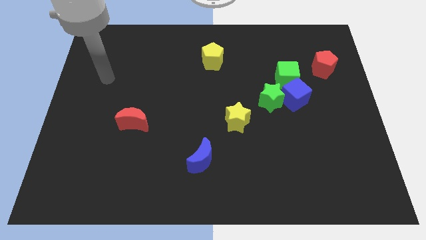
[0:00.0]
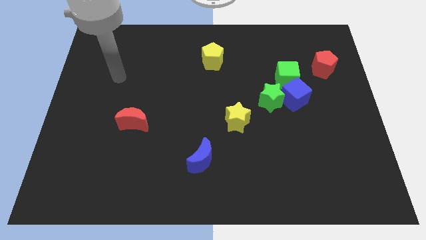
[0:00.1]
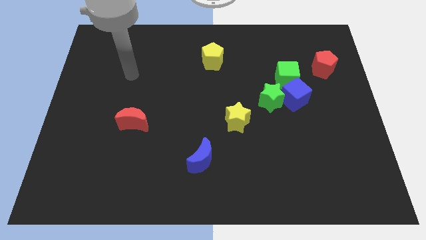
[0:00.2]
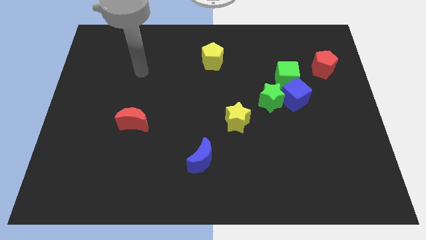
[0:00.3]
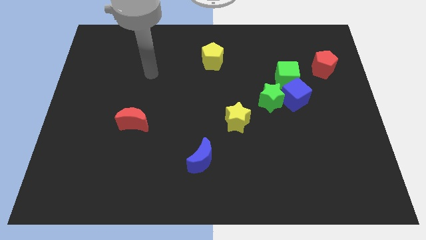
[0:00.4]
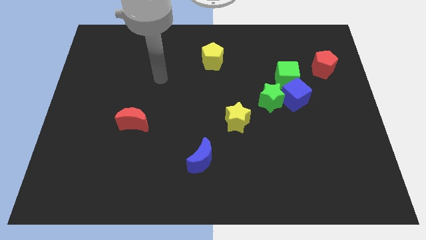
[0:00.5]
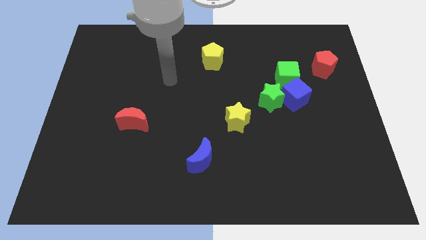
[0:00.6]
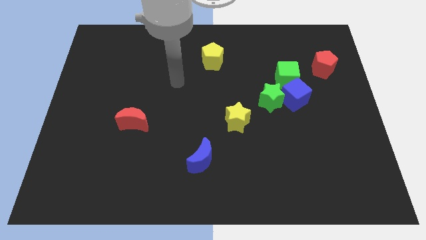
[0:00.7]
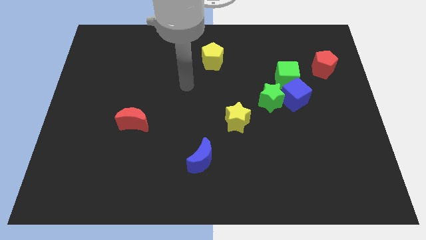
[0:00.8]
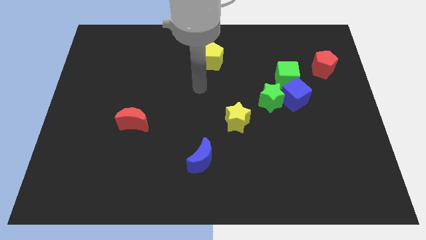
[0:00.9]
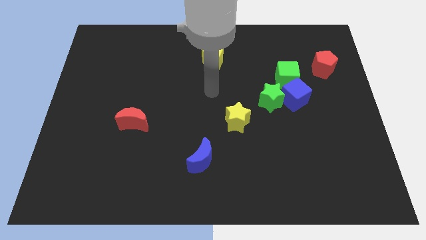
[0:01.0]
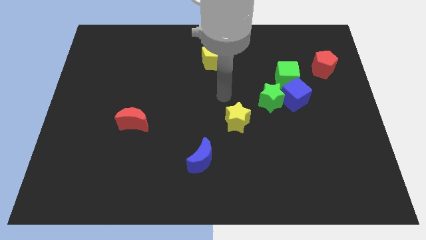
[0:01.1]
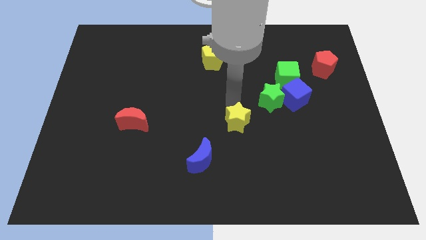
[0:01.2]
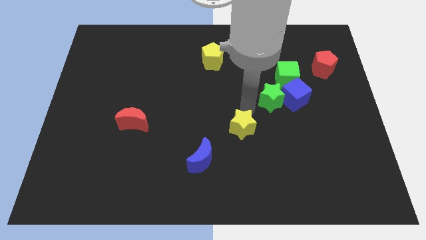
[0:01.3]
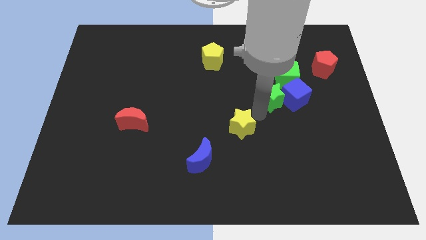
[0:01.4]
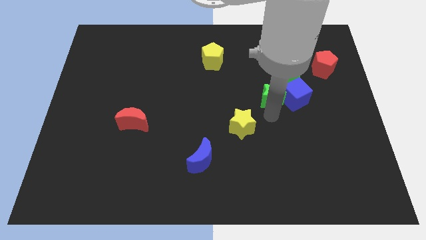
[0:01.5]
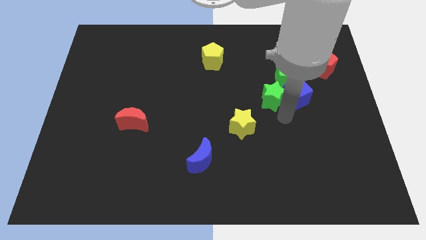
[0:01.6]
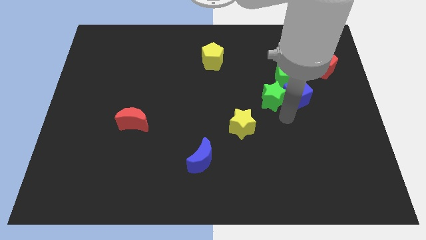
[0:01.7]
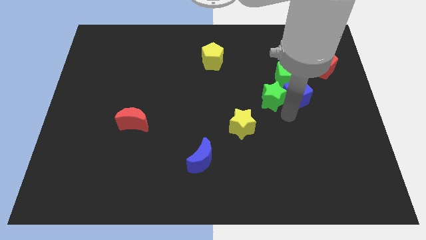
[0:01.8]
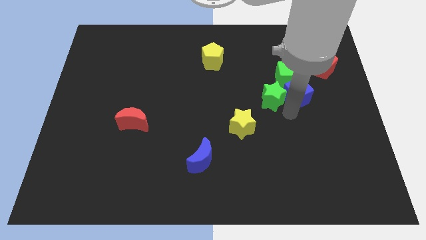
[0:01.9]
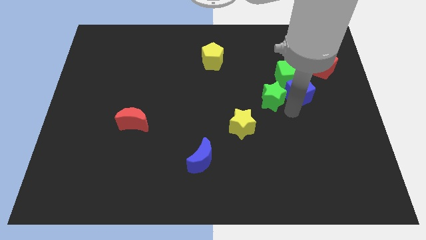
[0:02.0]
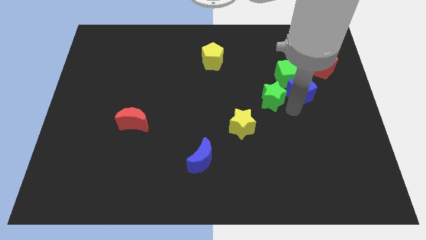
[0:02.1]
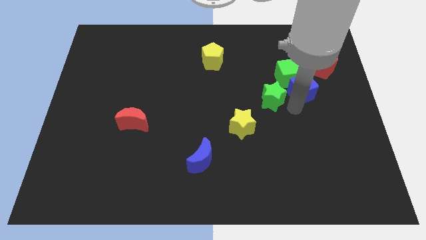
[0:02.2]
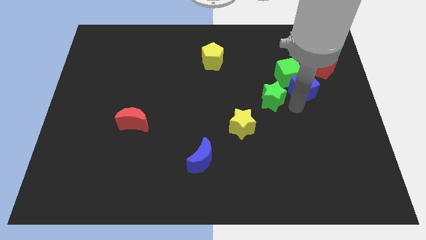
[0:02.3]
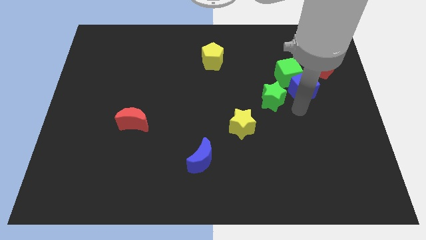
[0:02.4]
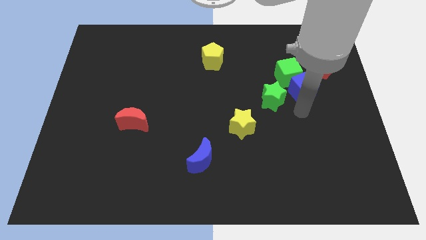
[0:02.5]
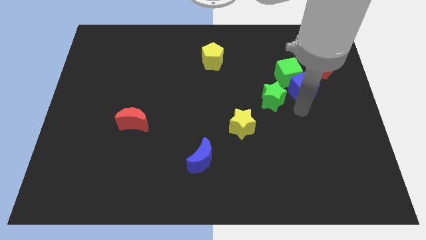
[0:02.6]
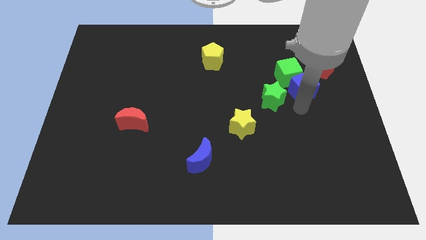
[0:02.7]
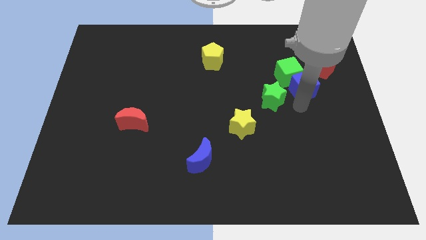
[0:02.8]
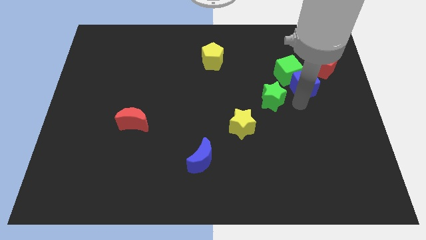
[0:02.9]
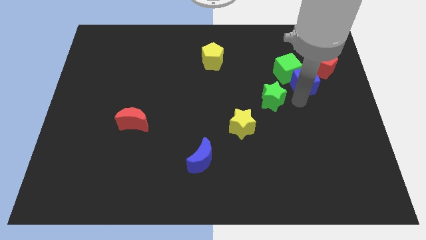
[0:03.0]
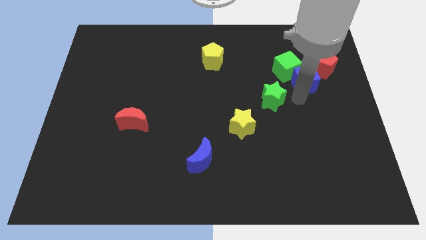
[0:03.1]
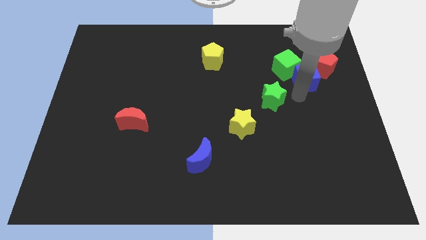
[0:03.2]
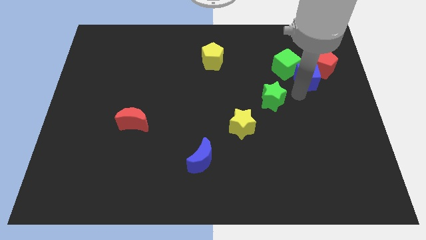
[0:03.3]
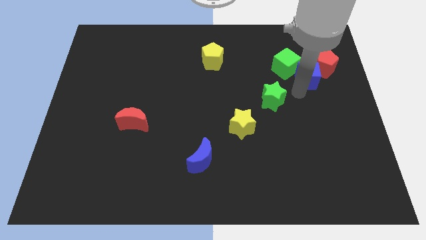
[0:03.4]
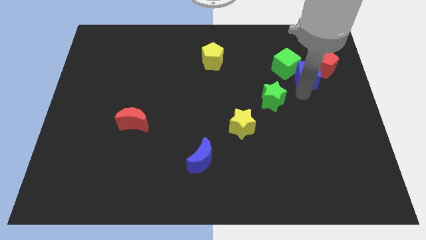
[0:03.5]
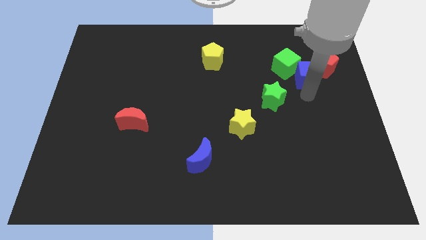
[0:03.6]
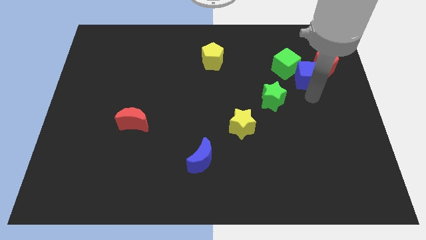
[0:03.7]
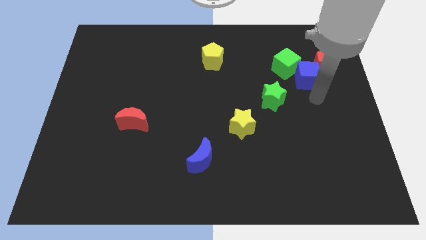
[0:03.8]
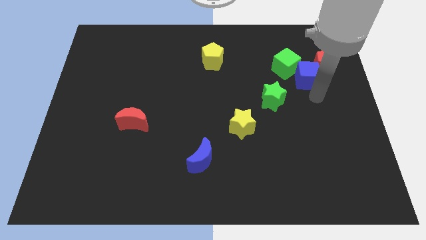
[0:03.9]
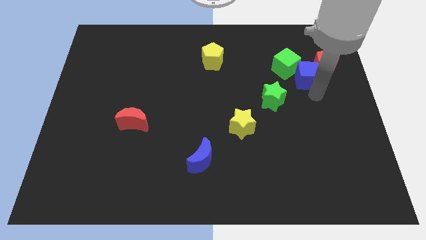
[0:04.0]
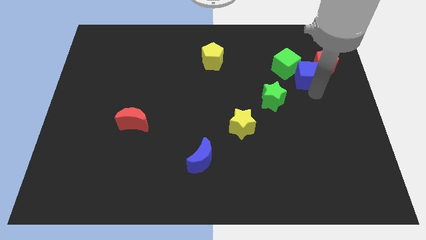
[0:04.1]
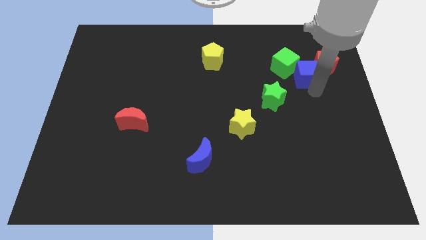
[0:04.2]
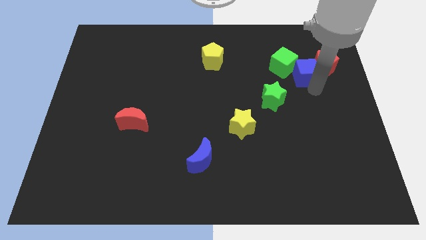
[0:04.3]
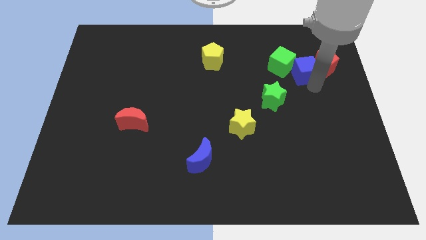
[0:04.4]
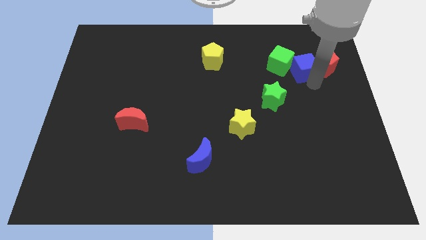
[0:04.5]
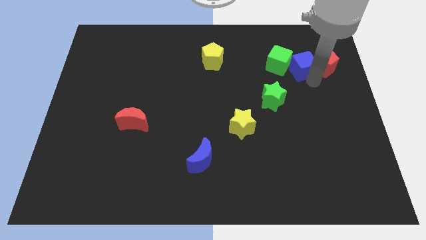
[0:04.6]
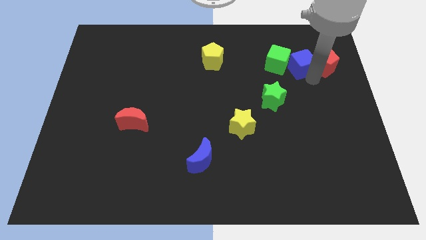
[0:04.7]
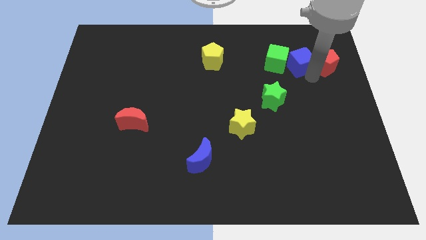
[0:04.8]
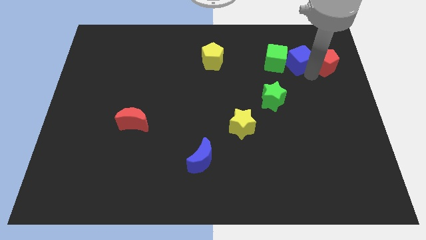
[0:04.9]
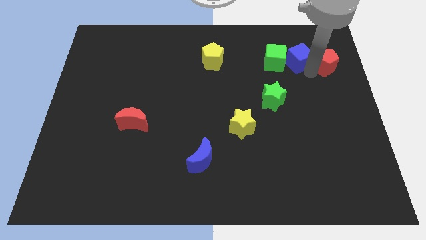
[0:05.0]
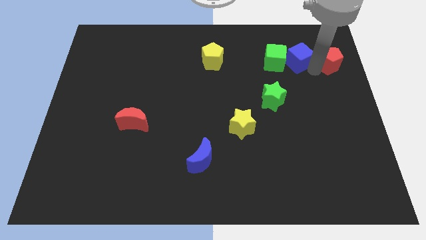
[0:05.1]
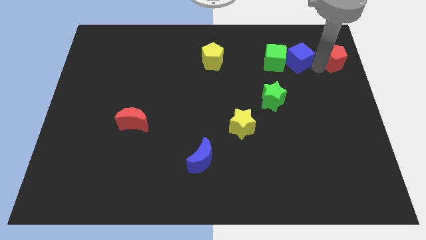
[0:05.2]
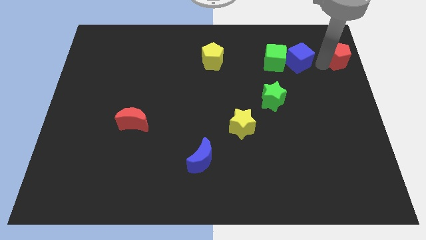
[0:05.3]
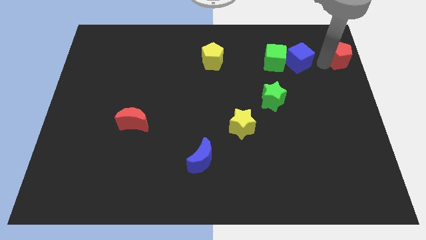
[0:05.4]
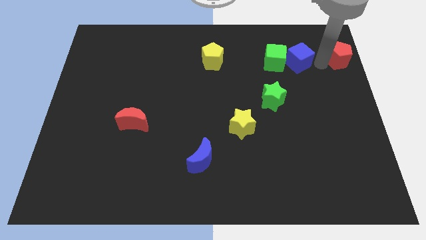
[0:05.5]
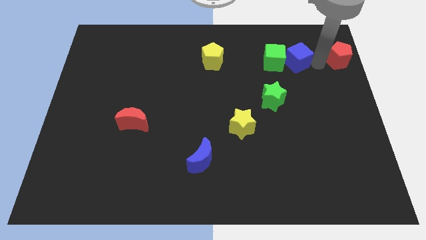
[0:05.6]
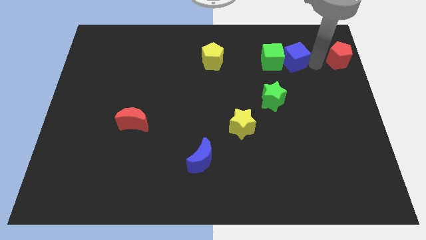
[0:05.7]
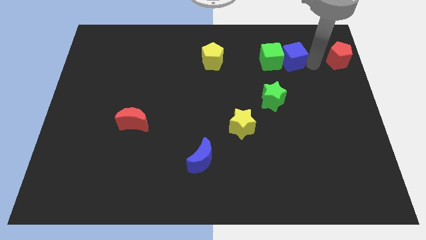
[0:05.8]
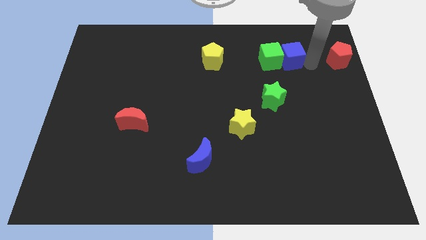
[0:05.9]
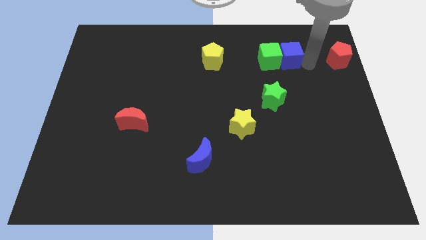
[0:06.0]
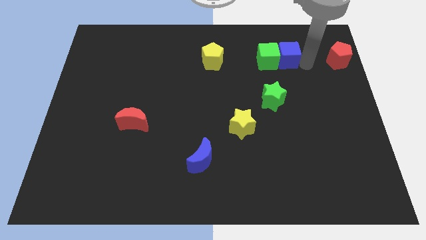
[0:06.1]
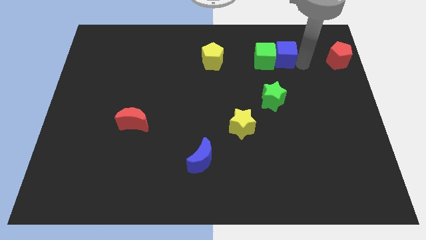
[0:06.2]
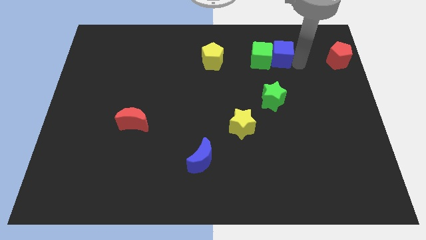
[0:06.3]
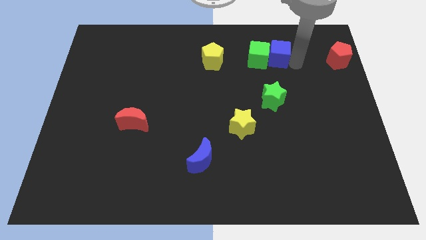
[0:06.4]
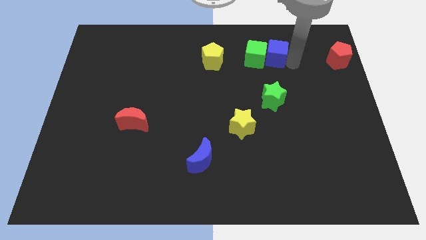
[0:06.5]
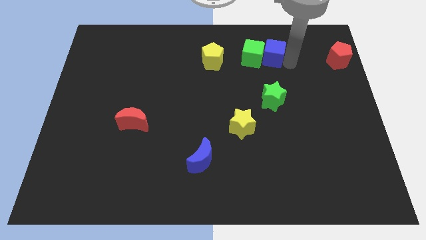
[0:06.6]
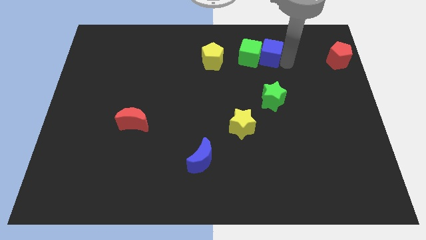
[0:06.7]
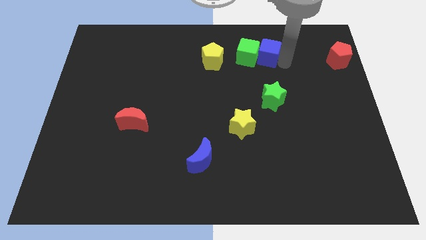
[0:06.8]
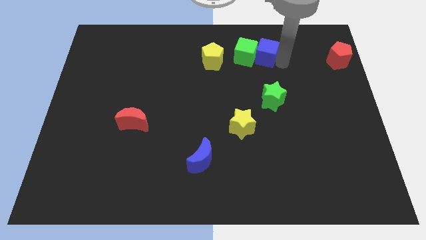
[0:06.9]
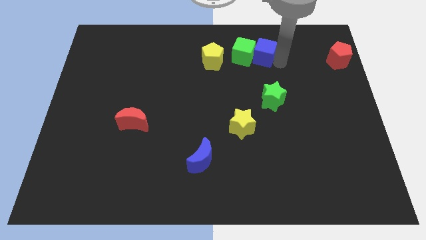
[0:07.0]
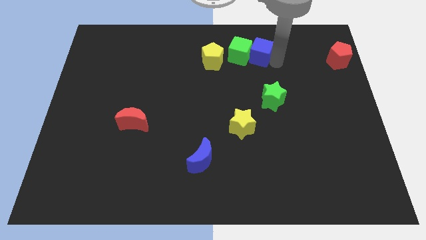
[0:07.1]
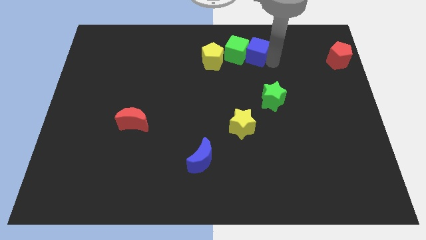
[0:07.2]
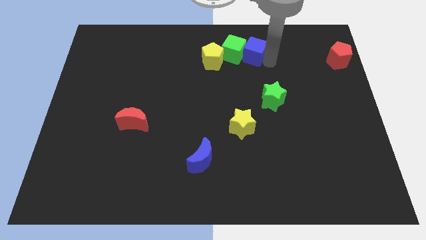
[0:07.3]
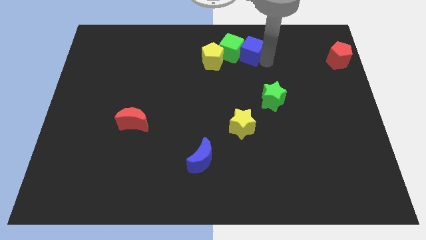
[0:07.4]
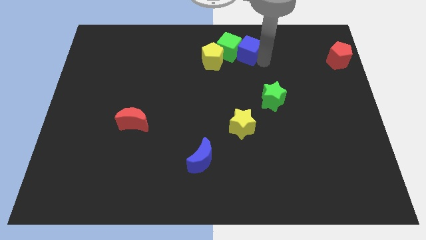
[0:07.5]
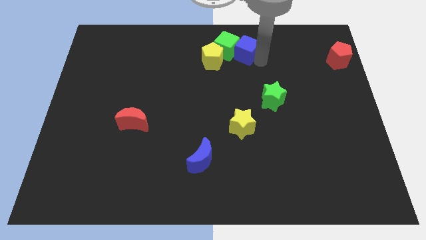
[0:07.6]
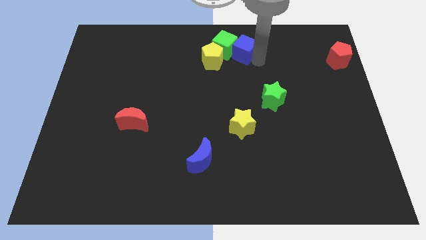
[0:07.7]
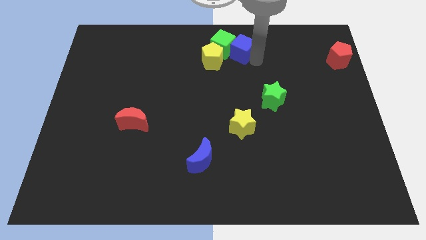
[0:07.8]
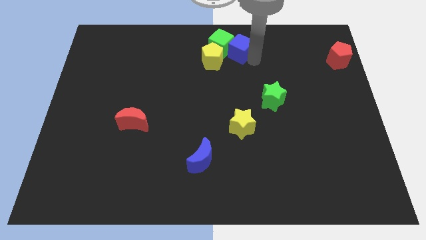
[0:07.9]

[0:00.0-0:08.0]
move the blue cube to the top side
